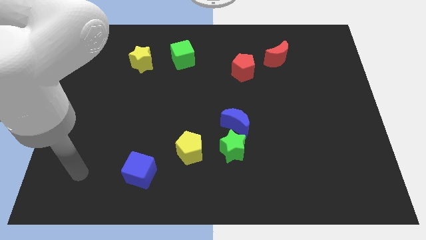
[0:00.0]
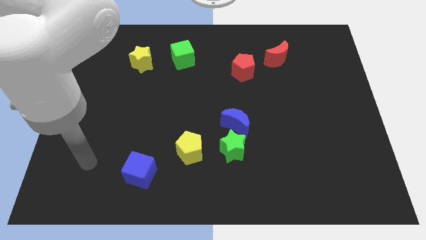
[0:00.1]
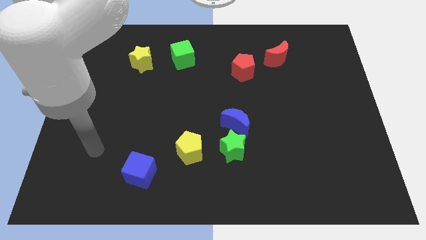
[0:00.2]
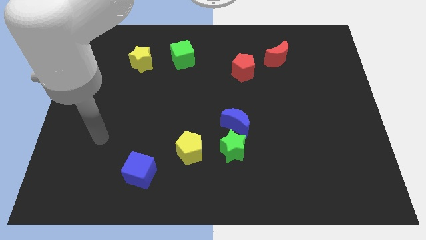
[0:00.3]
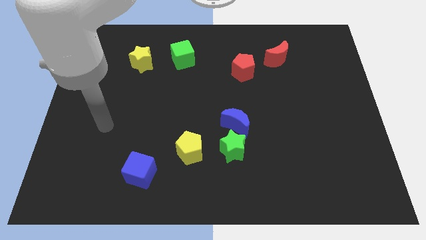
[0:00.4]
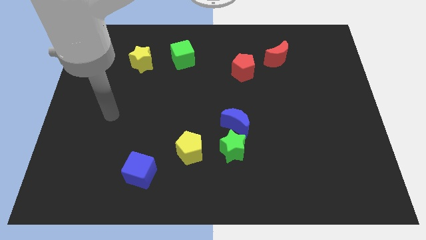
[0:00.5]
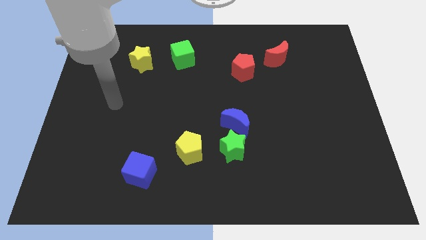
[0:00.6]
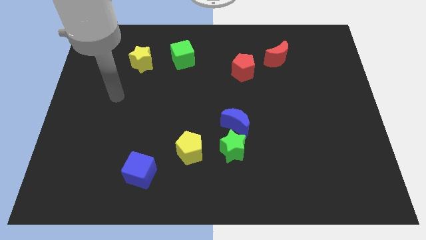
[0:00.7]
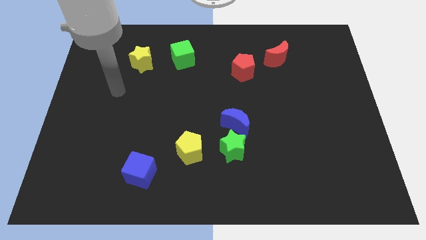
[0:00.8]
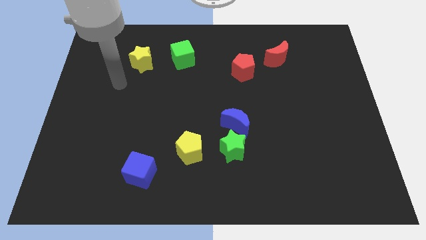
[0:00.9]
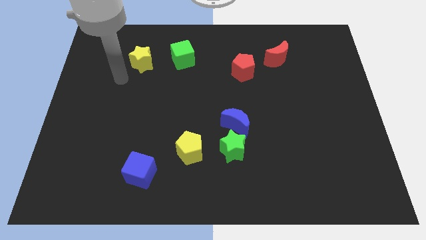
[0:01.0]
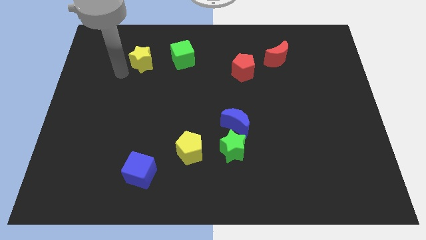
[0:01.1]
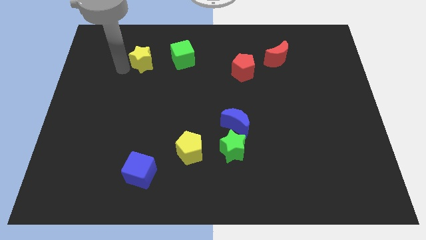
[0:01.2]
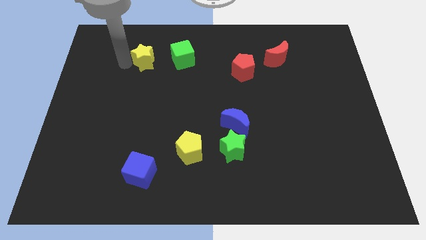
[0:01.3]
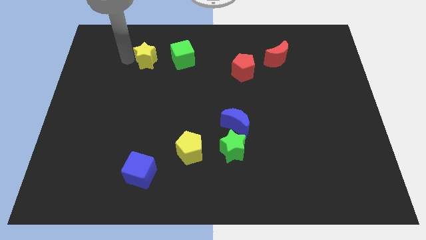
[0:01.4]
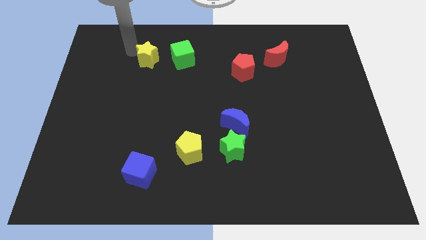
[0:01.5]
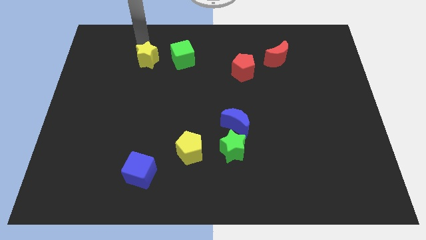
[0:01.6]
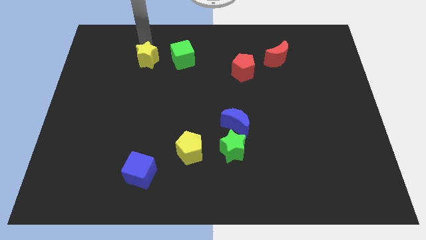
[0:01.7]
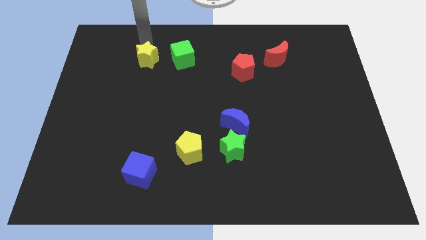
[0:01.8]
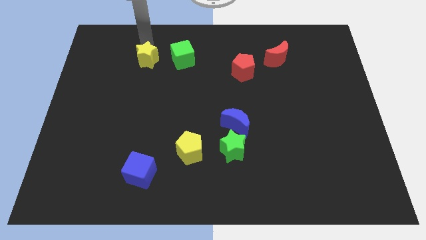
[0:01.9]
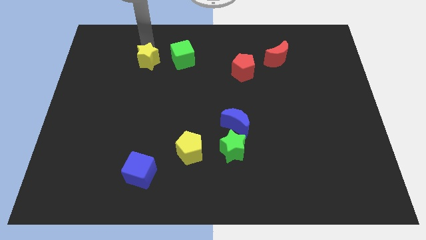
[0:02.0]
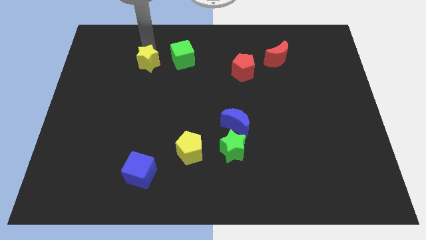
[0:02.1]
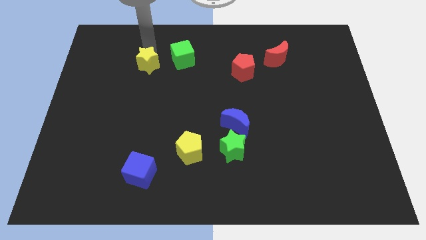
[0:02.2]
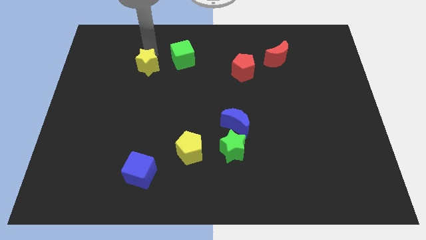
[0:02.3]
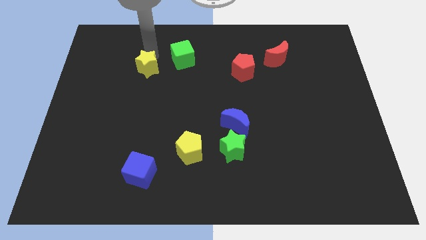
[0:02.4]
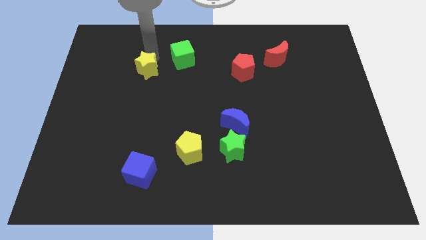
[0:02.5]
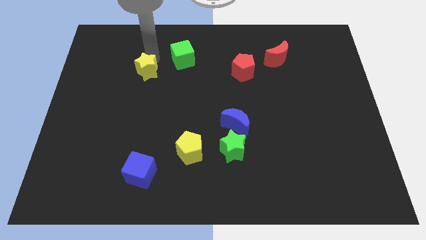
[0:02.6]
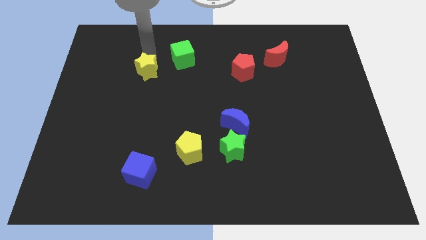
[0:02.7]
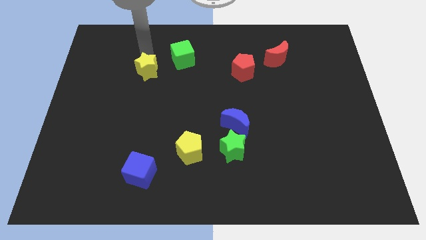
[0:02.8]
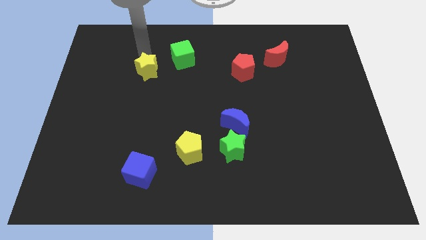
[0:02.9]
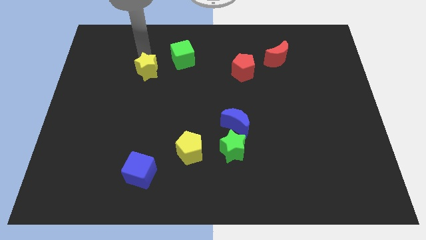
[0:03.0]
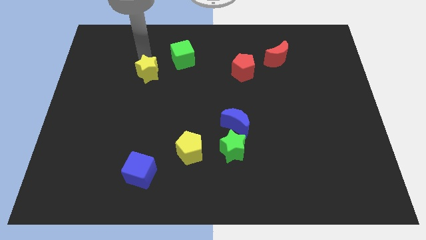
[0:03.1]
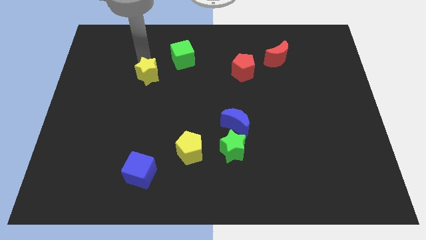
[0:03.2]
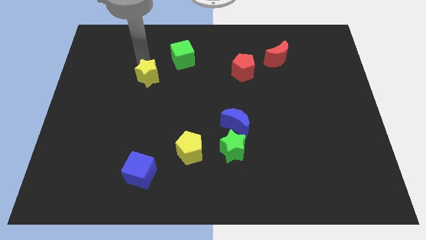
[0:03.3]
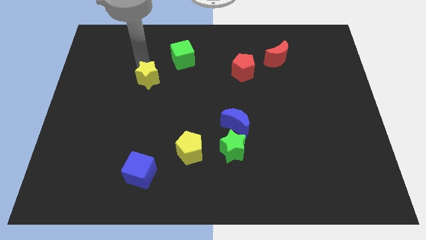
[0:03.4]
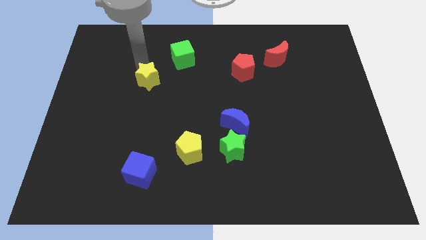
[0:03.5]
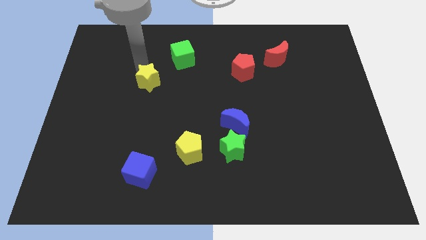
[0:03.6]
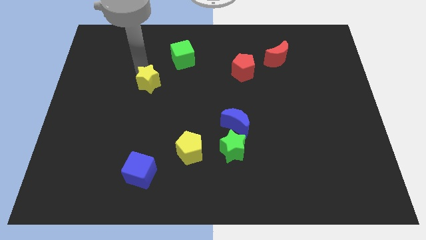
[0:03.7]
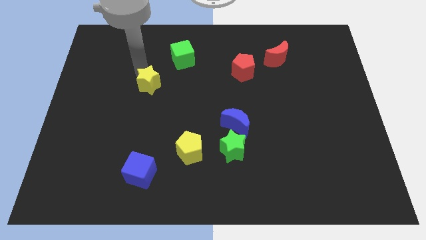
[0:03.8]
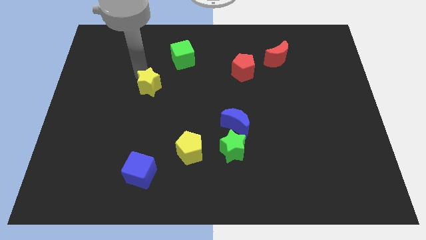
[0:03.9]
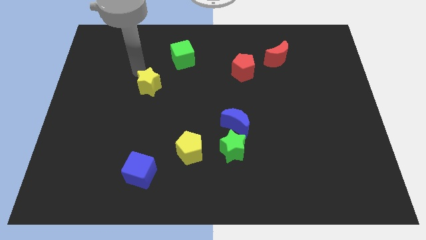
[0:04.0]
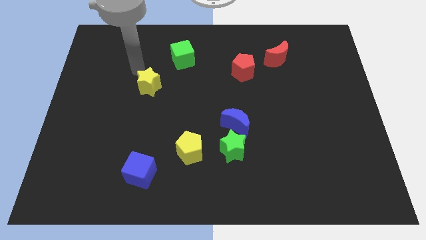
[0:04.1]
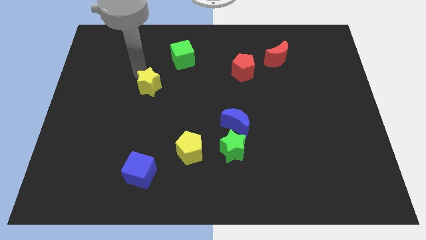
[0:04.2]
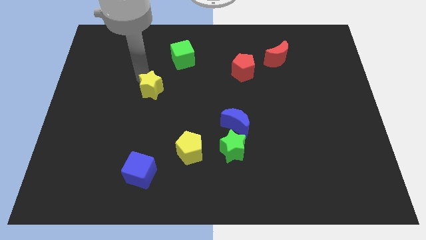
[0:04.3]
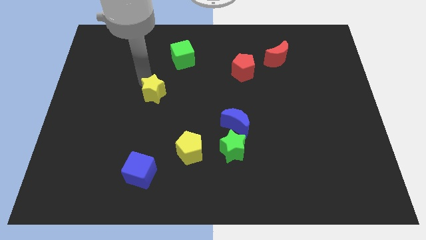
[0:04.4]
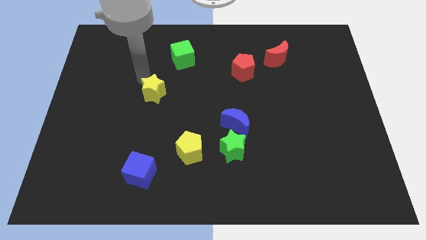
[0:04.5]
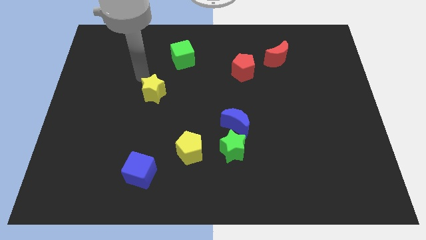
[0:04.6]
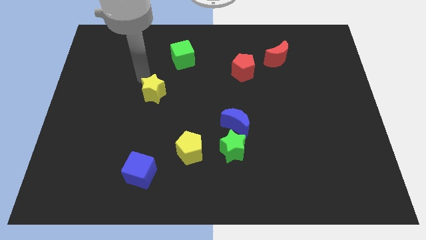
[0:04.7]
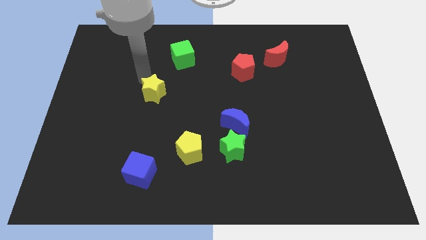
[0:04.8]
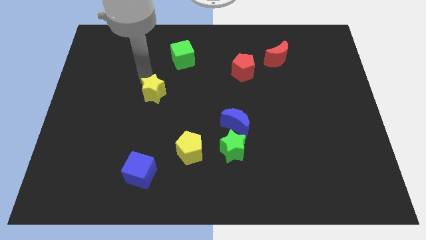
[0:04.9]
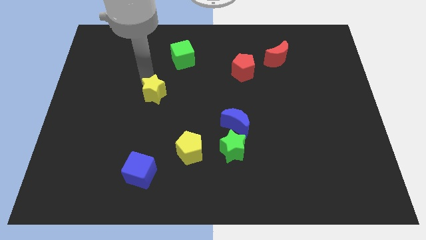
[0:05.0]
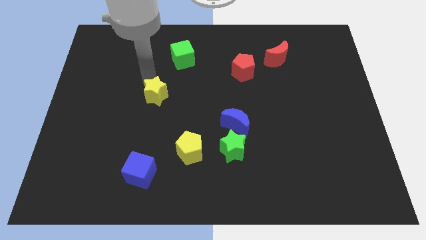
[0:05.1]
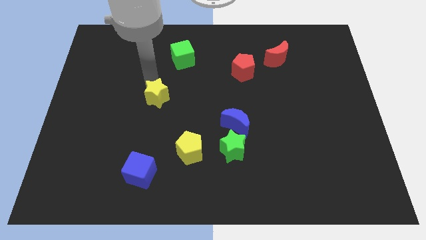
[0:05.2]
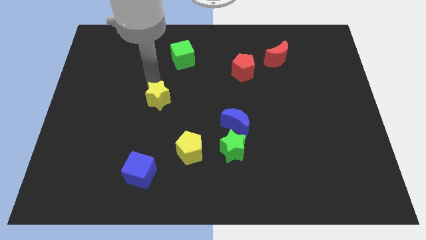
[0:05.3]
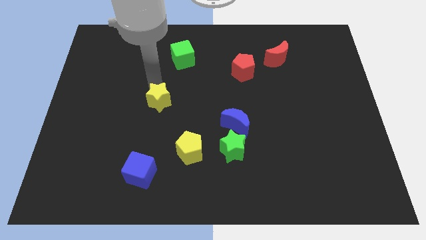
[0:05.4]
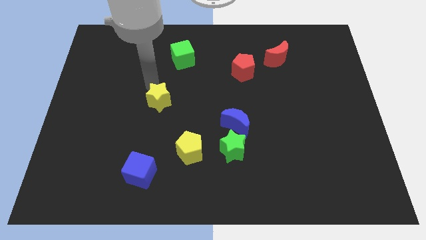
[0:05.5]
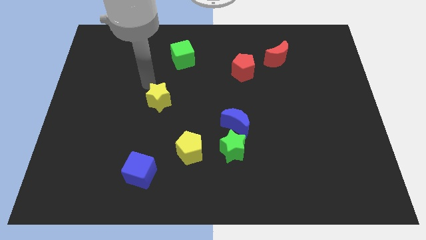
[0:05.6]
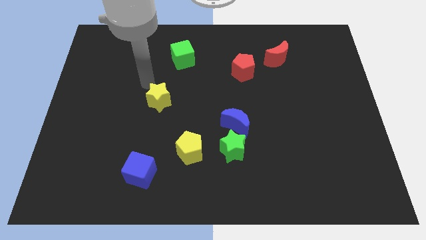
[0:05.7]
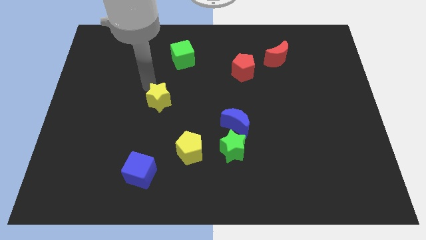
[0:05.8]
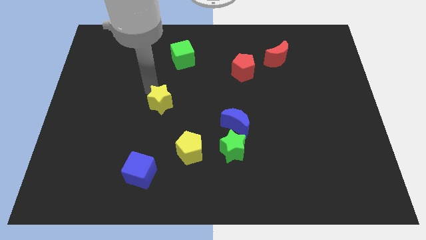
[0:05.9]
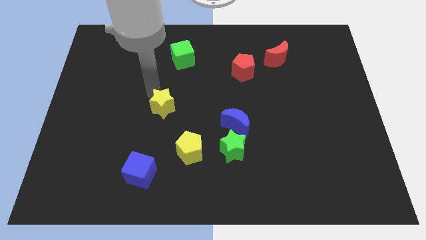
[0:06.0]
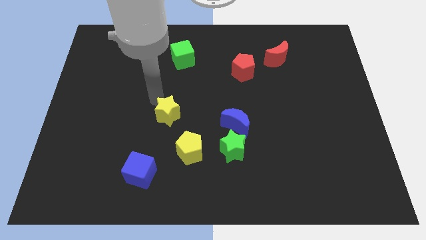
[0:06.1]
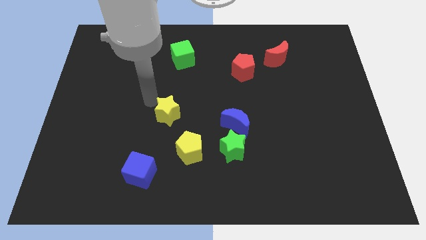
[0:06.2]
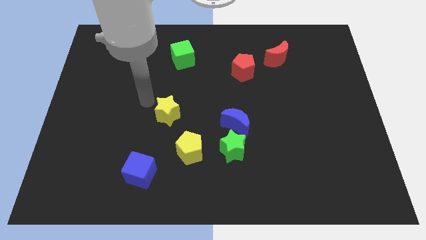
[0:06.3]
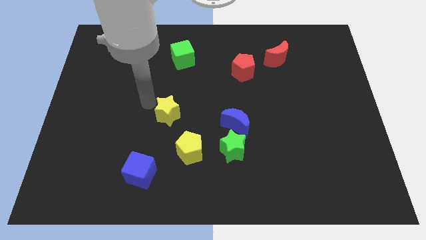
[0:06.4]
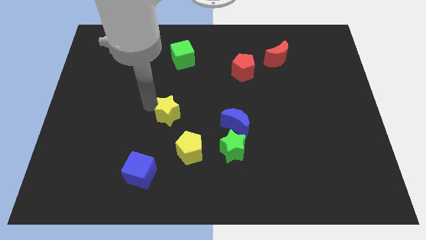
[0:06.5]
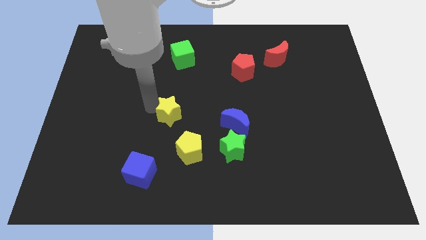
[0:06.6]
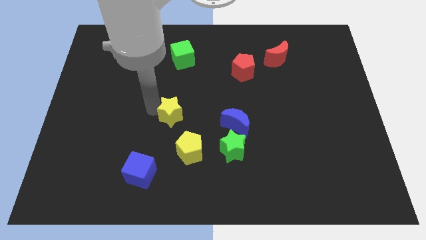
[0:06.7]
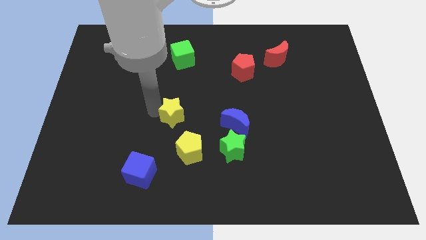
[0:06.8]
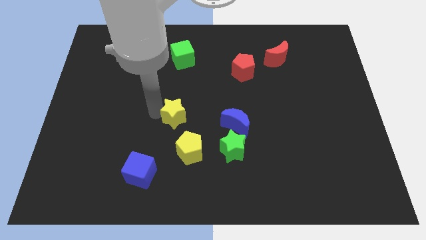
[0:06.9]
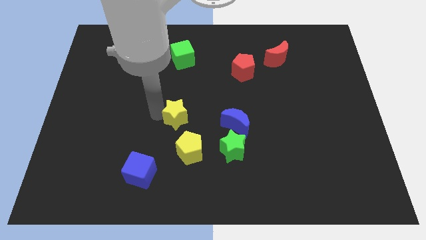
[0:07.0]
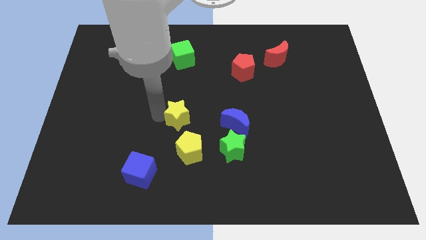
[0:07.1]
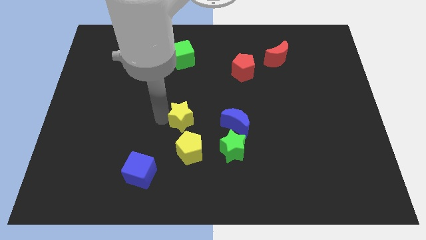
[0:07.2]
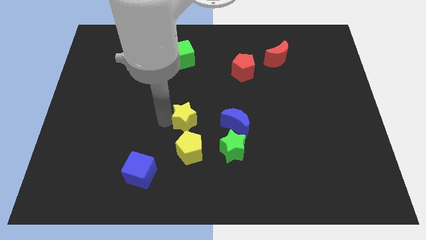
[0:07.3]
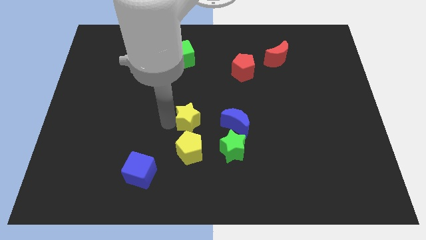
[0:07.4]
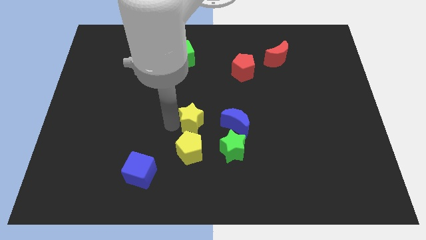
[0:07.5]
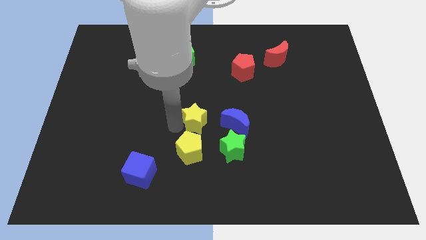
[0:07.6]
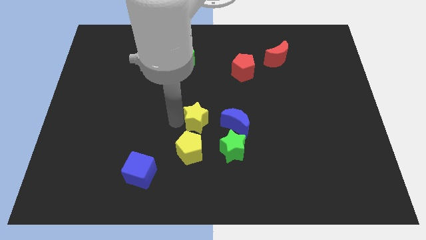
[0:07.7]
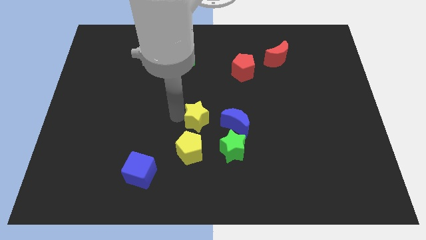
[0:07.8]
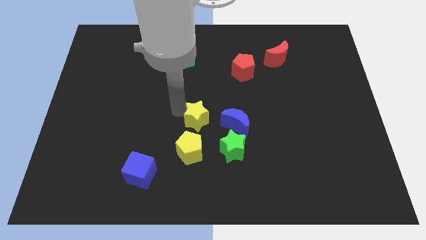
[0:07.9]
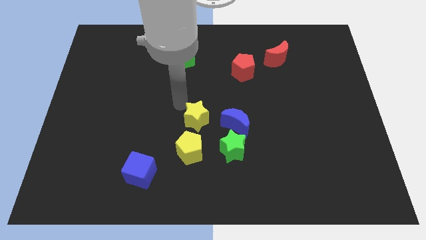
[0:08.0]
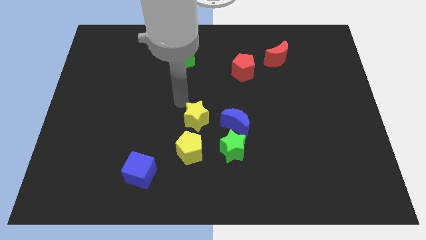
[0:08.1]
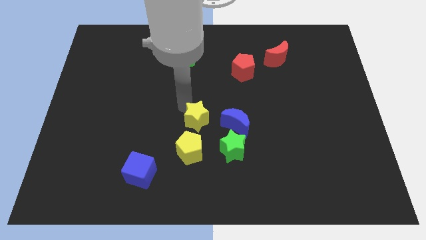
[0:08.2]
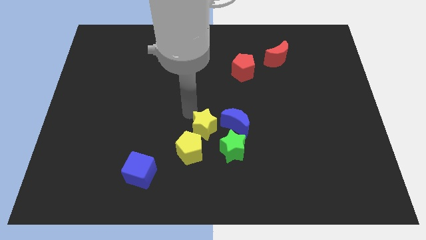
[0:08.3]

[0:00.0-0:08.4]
push the yellow star to the bottom left side of the blue moon
